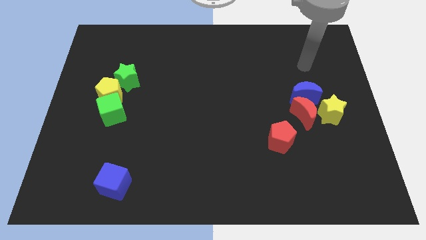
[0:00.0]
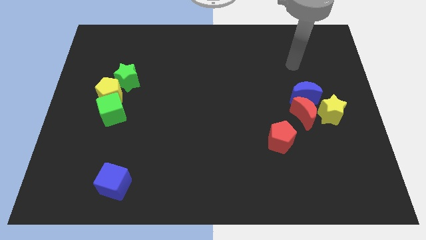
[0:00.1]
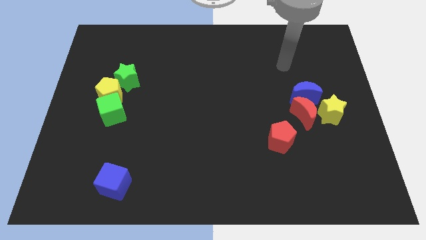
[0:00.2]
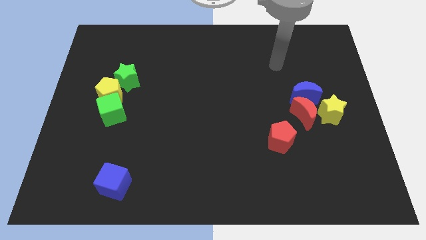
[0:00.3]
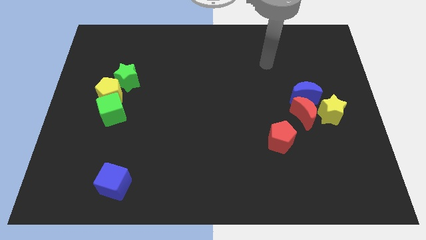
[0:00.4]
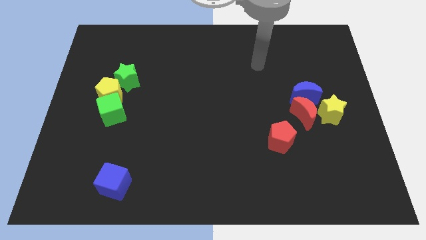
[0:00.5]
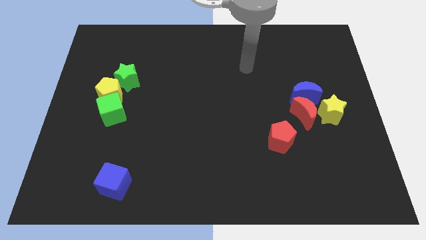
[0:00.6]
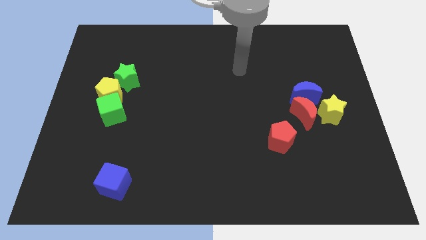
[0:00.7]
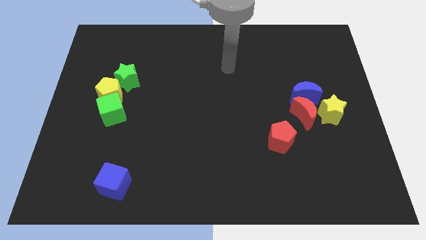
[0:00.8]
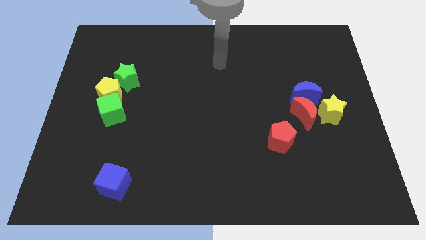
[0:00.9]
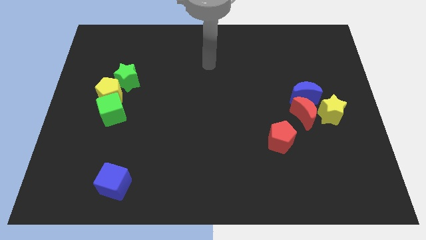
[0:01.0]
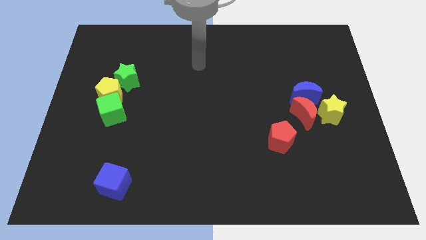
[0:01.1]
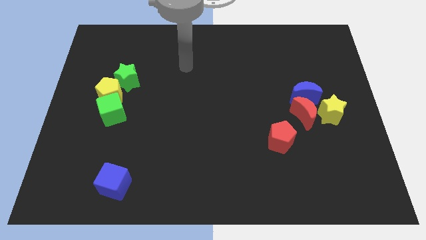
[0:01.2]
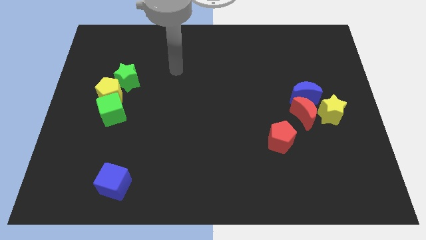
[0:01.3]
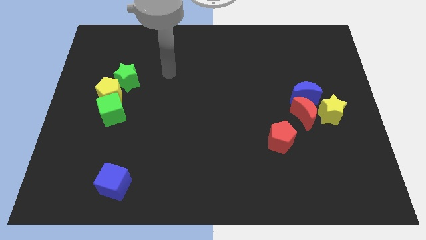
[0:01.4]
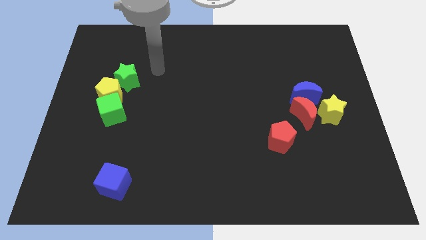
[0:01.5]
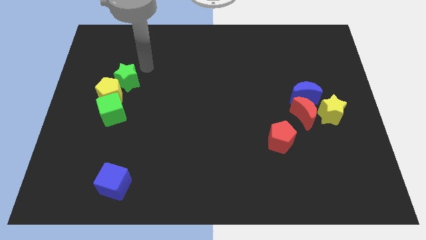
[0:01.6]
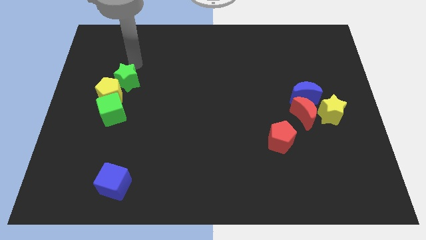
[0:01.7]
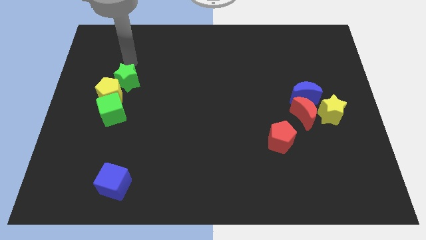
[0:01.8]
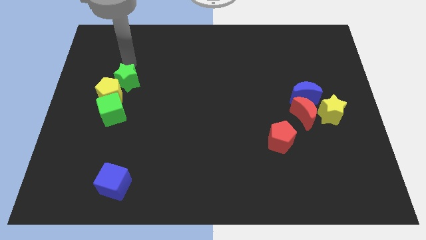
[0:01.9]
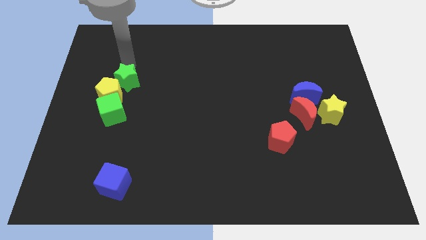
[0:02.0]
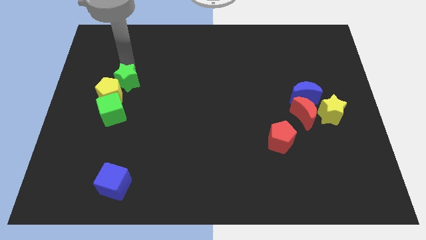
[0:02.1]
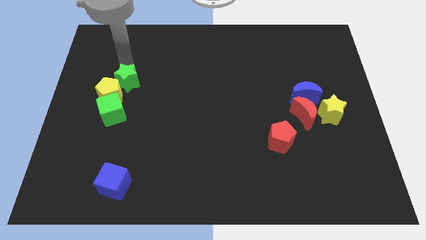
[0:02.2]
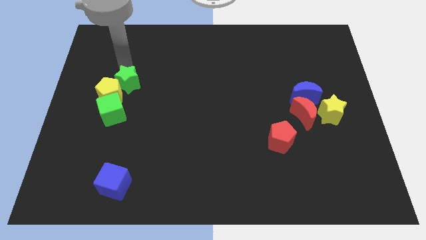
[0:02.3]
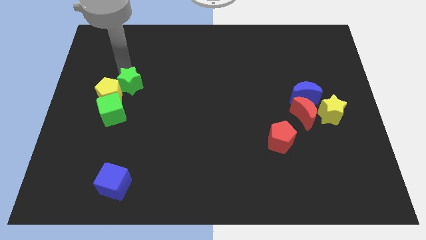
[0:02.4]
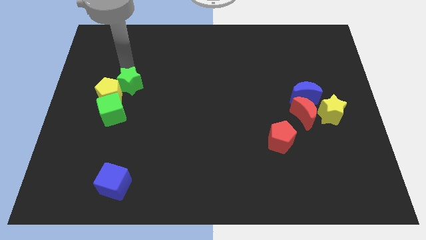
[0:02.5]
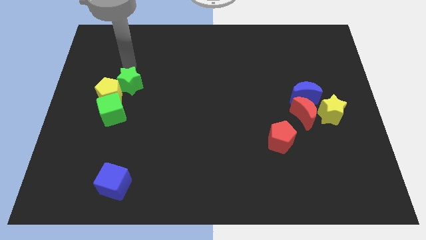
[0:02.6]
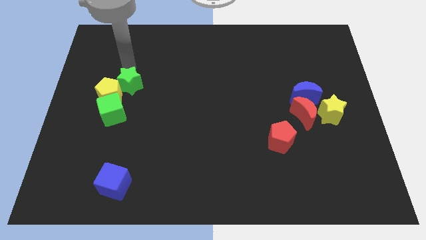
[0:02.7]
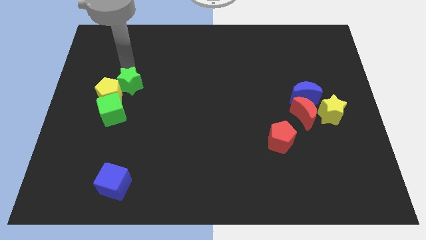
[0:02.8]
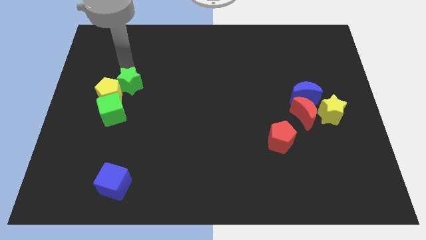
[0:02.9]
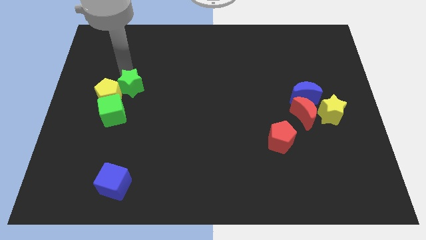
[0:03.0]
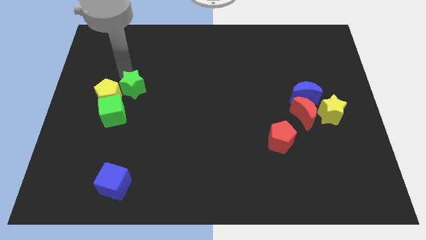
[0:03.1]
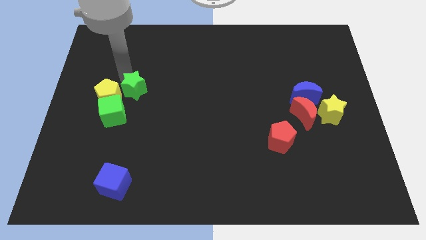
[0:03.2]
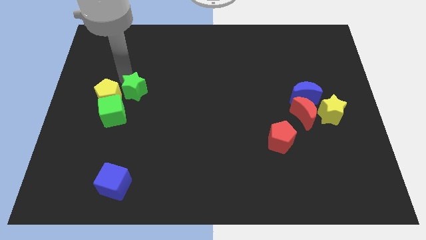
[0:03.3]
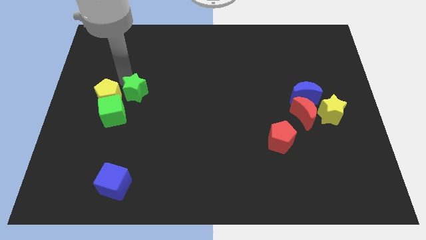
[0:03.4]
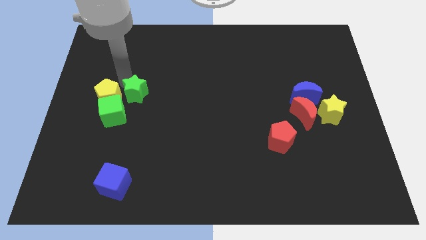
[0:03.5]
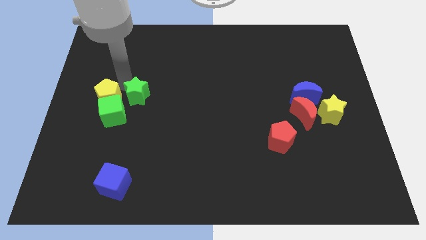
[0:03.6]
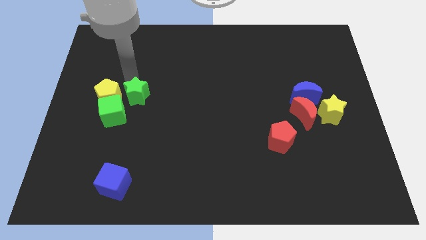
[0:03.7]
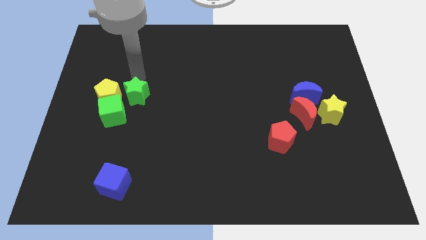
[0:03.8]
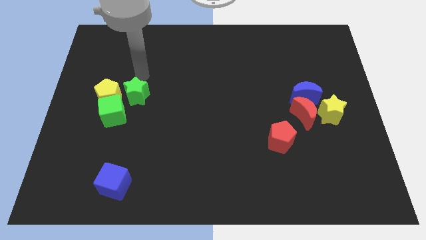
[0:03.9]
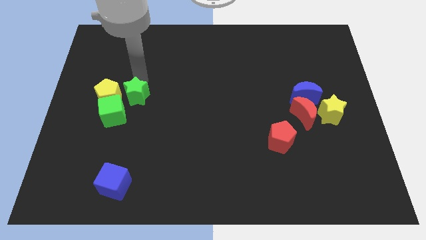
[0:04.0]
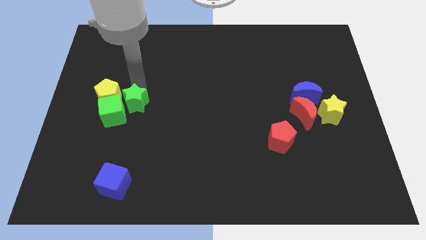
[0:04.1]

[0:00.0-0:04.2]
slide the green star down a little

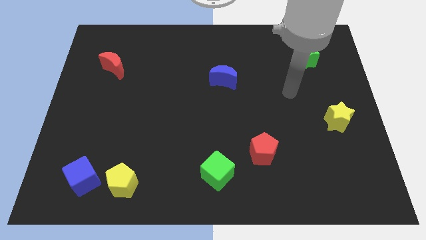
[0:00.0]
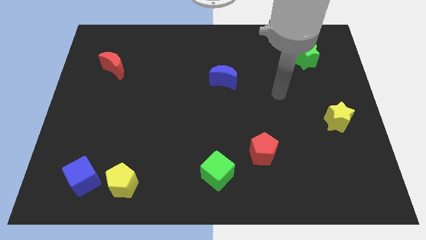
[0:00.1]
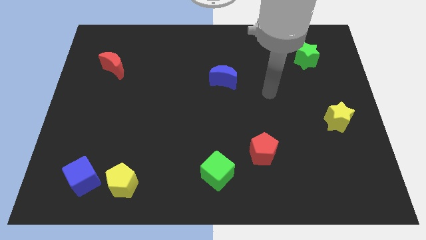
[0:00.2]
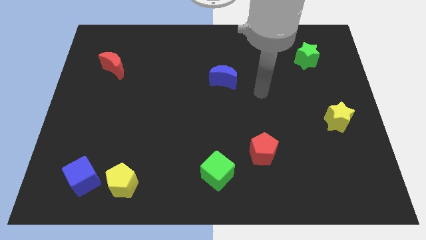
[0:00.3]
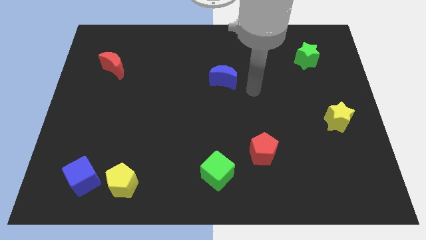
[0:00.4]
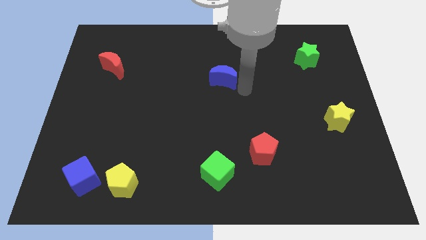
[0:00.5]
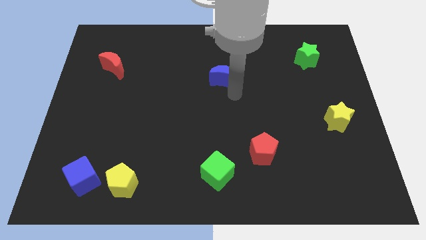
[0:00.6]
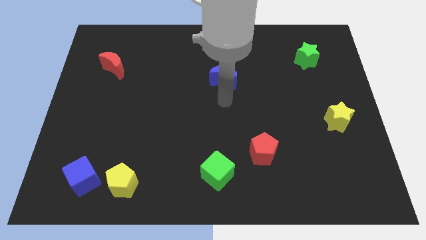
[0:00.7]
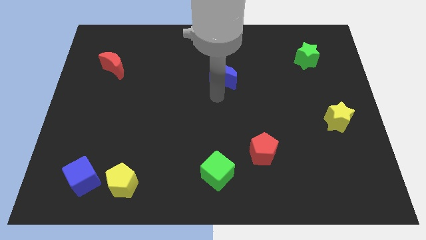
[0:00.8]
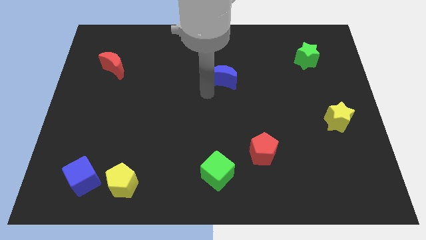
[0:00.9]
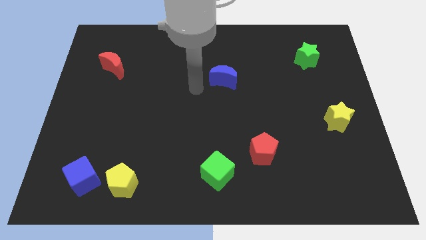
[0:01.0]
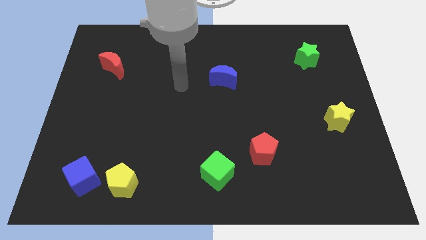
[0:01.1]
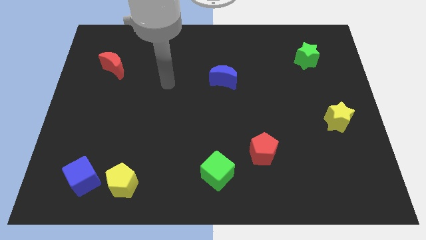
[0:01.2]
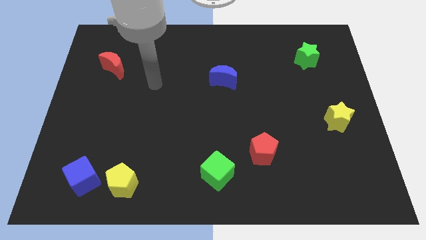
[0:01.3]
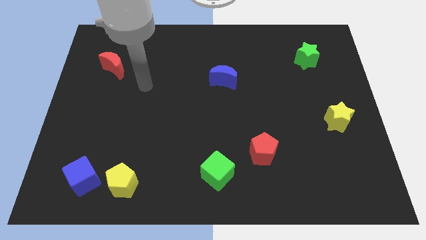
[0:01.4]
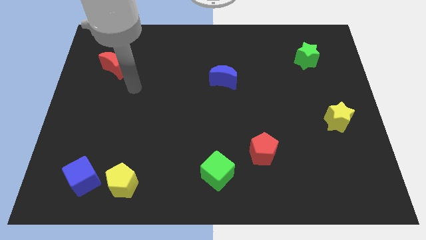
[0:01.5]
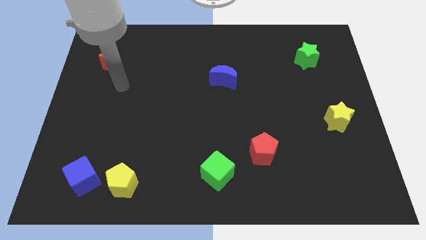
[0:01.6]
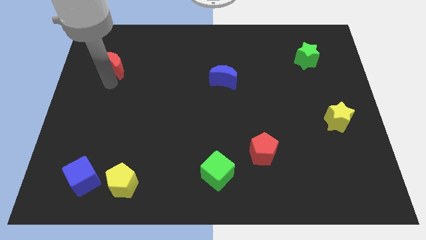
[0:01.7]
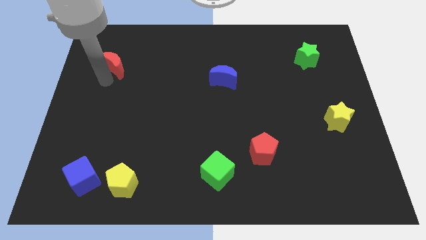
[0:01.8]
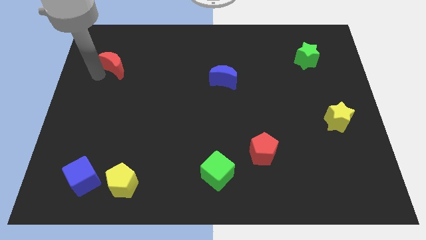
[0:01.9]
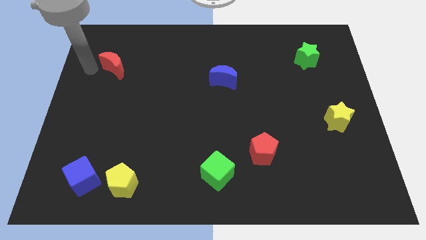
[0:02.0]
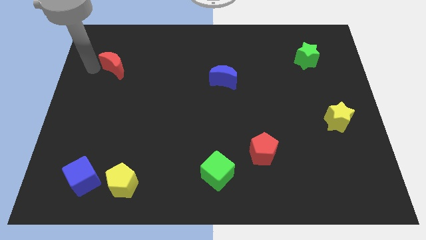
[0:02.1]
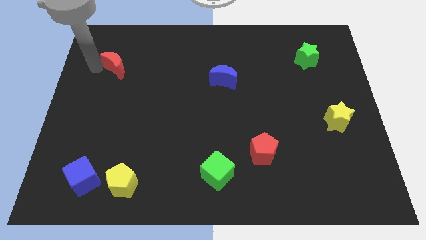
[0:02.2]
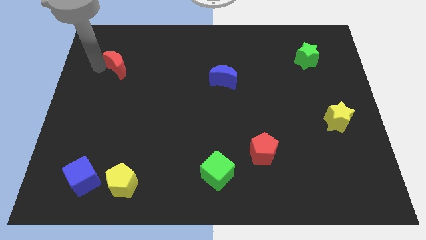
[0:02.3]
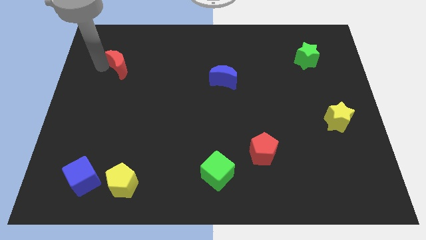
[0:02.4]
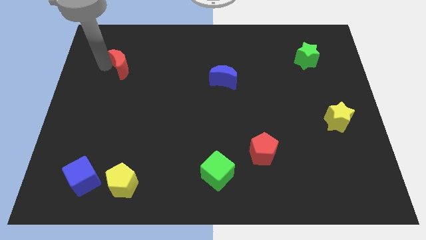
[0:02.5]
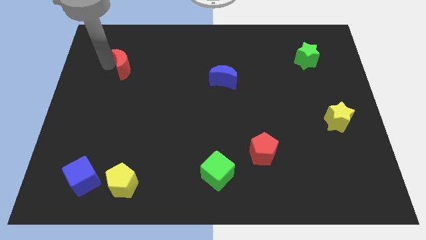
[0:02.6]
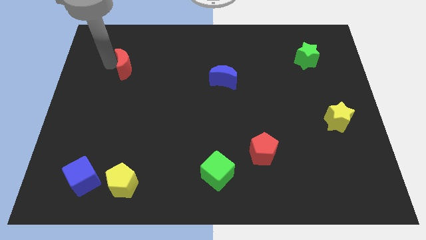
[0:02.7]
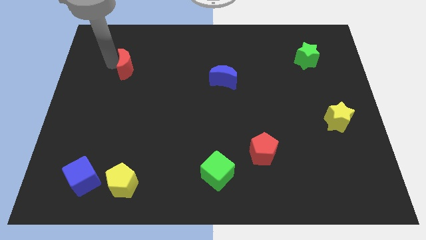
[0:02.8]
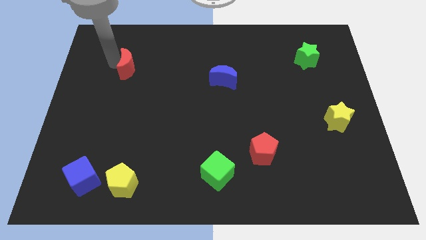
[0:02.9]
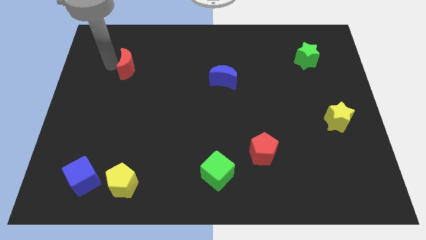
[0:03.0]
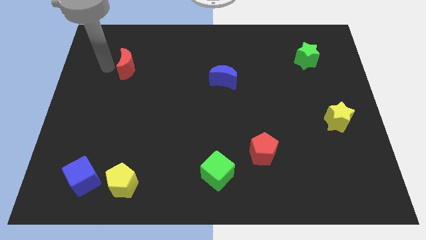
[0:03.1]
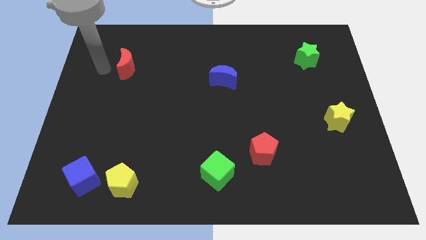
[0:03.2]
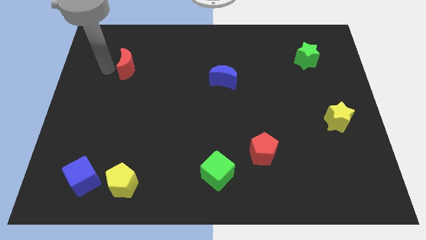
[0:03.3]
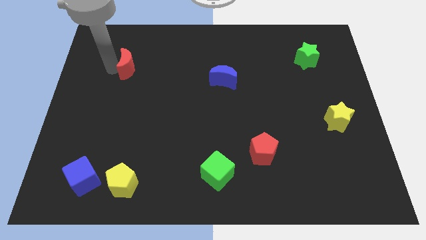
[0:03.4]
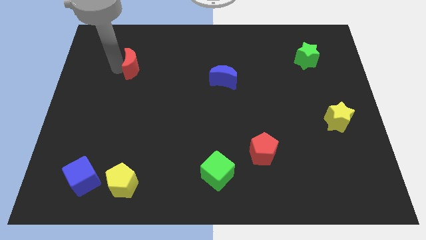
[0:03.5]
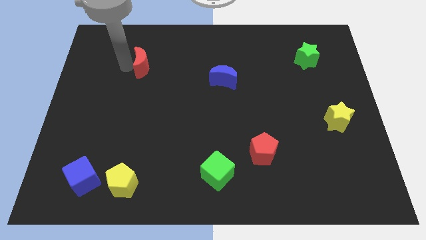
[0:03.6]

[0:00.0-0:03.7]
slightly push the red moon right

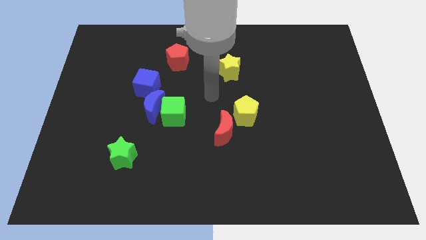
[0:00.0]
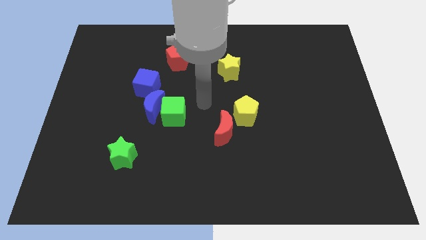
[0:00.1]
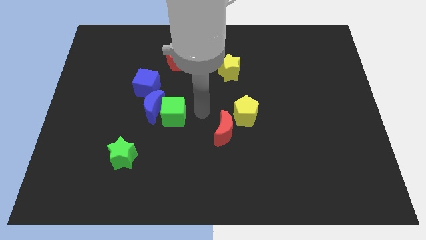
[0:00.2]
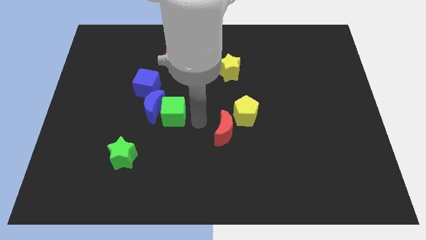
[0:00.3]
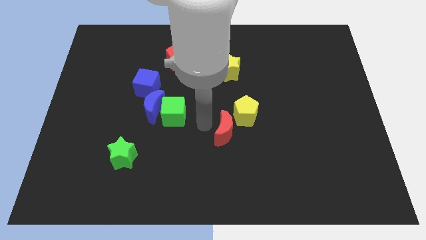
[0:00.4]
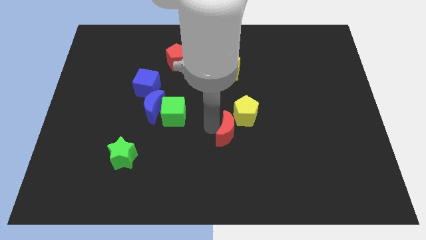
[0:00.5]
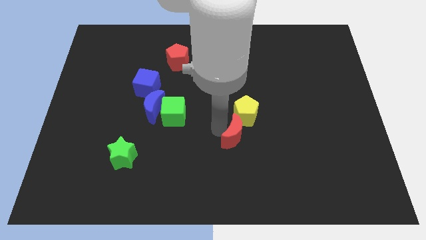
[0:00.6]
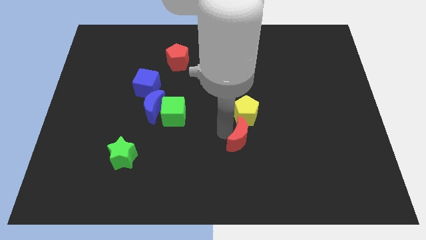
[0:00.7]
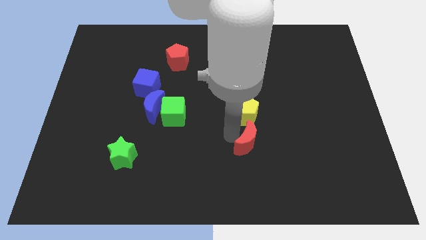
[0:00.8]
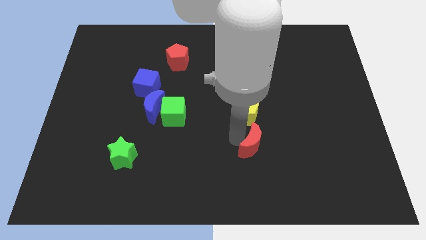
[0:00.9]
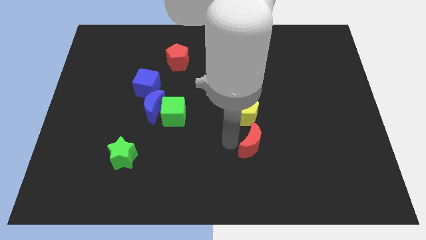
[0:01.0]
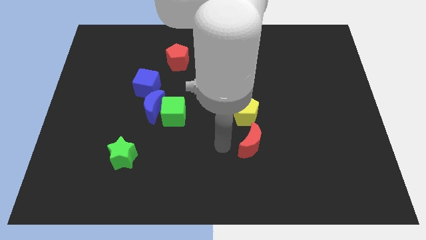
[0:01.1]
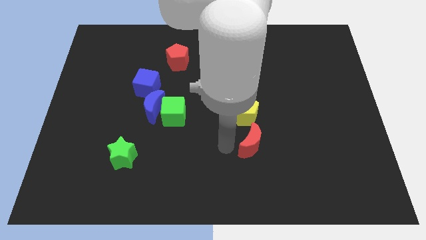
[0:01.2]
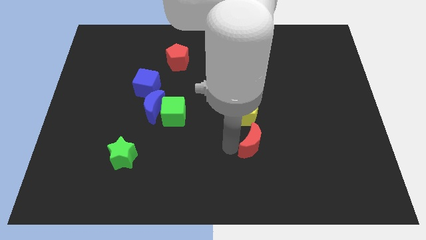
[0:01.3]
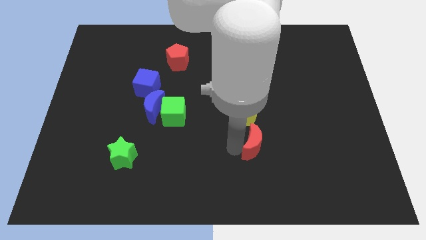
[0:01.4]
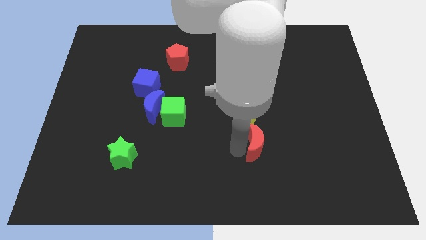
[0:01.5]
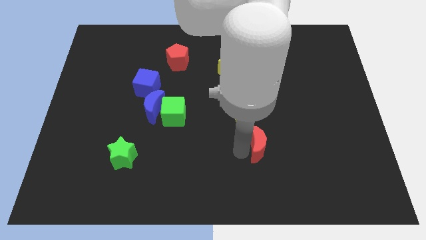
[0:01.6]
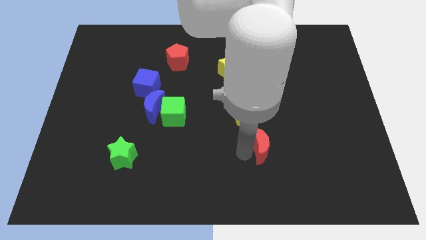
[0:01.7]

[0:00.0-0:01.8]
move the red moon right slightly
